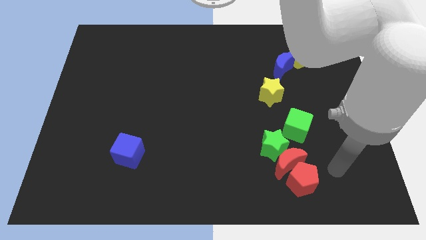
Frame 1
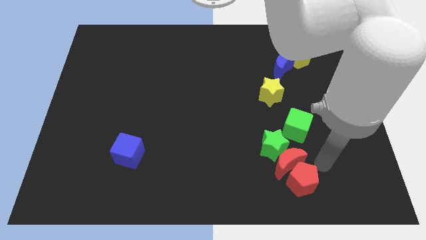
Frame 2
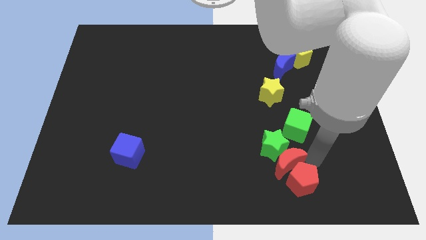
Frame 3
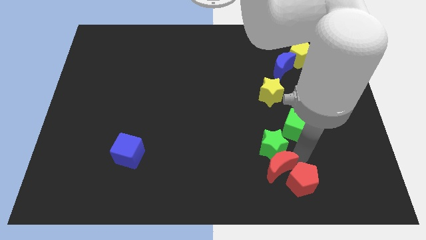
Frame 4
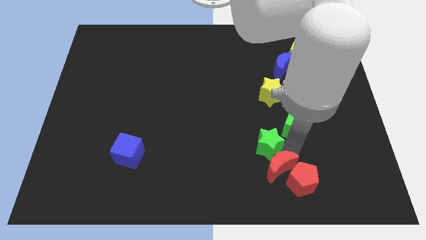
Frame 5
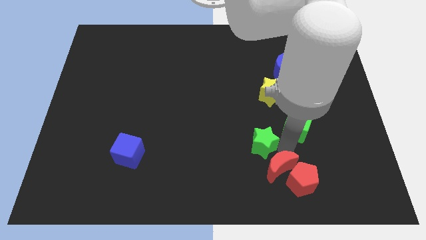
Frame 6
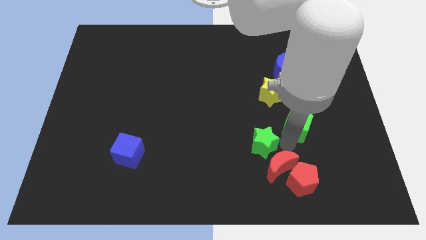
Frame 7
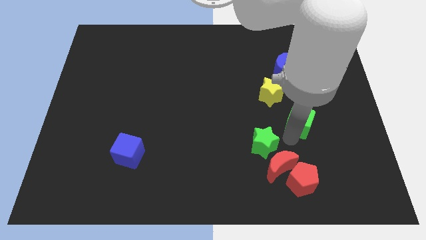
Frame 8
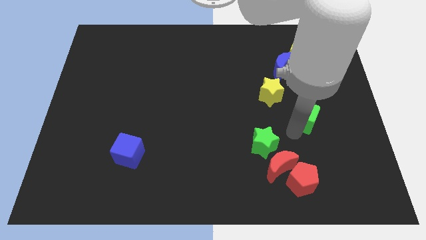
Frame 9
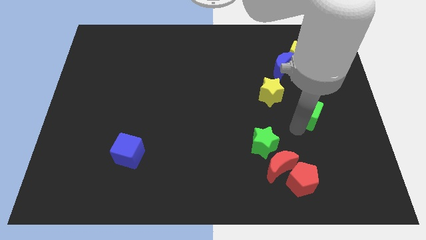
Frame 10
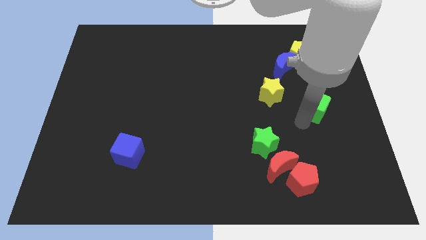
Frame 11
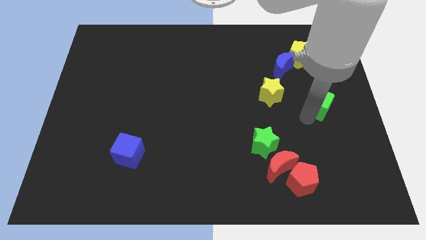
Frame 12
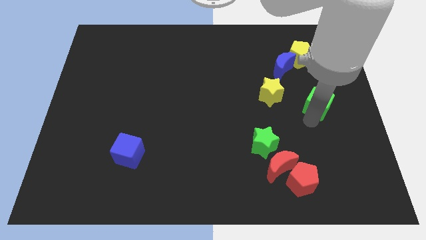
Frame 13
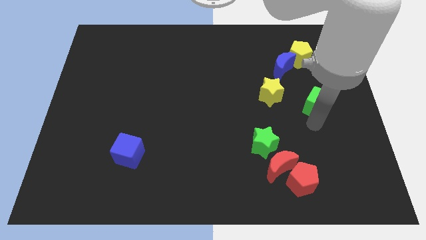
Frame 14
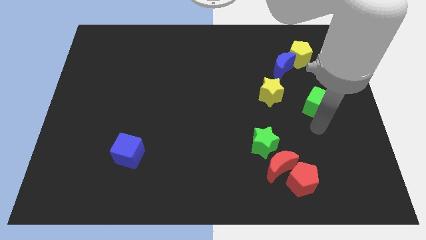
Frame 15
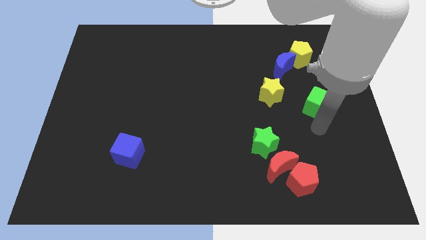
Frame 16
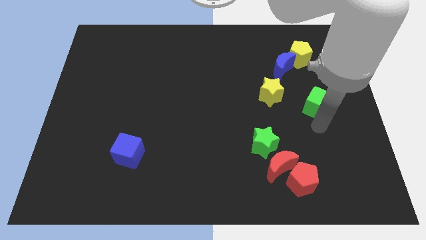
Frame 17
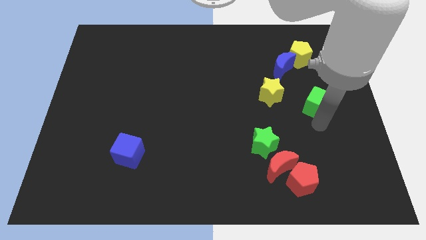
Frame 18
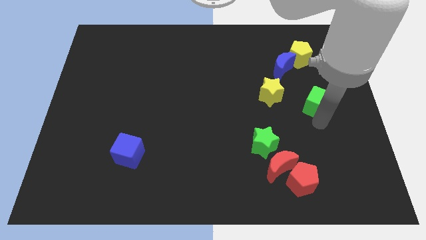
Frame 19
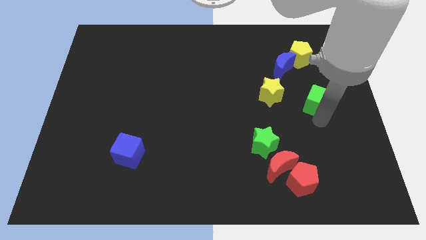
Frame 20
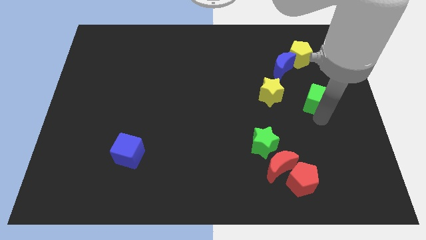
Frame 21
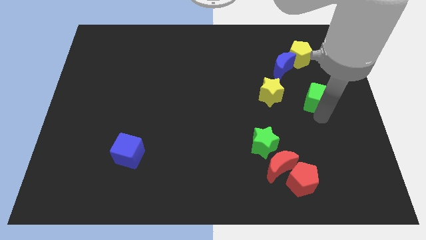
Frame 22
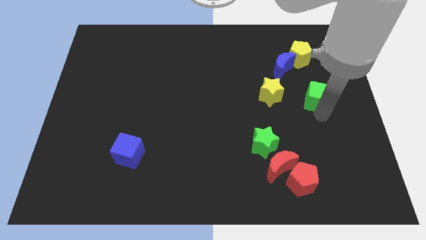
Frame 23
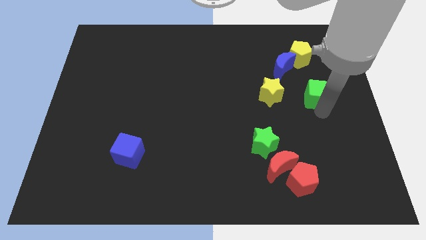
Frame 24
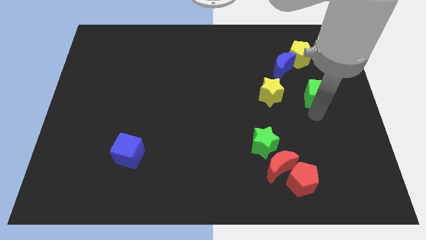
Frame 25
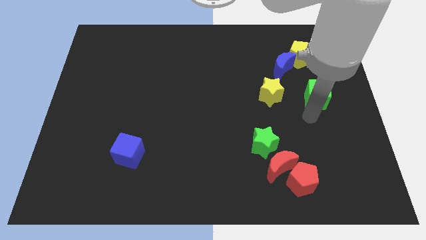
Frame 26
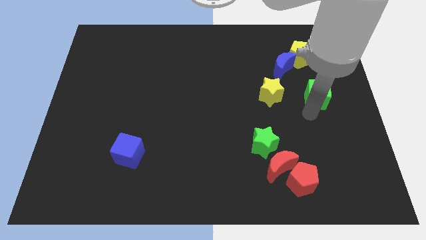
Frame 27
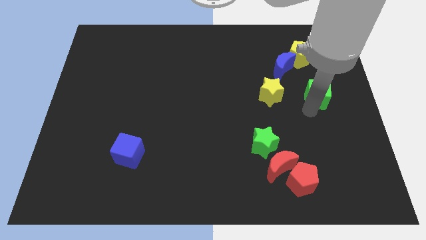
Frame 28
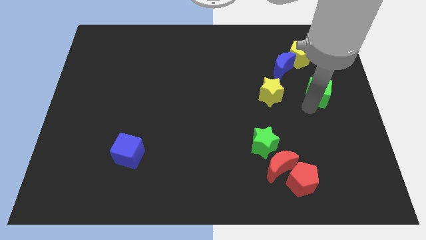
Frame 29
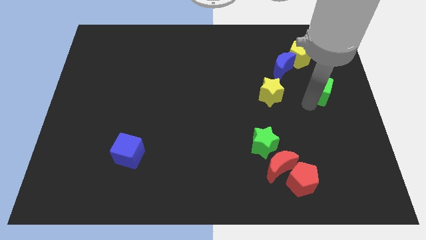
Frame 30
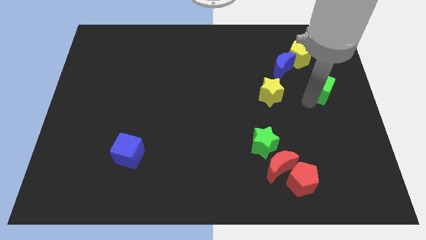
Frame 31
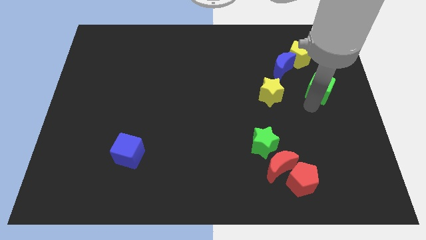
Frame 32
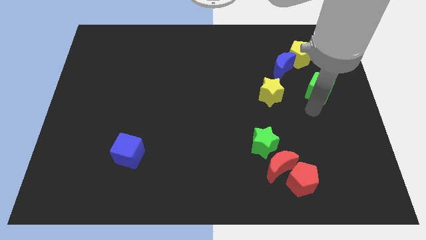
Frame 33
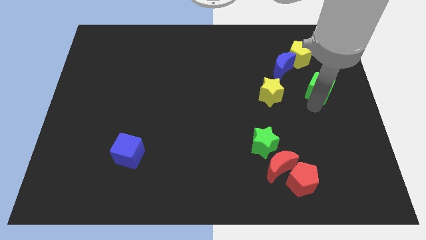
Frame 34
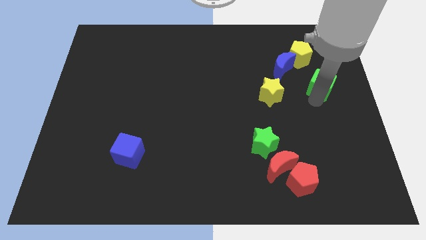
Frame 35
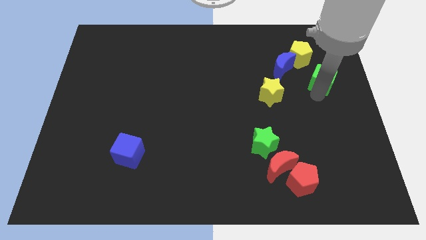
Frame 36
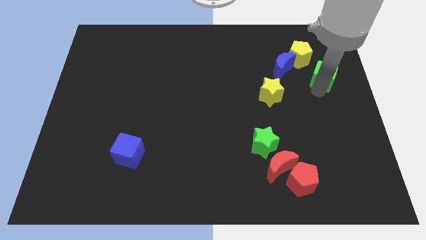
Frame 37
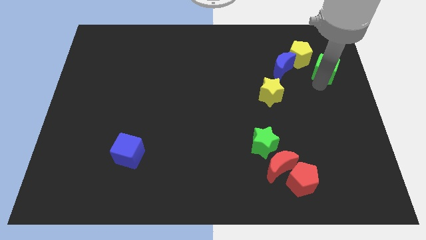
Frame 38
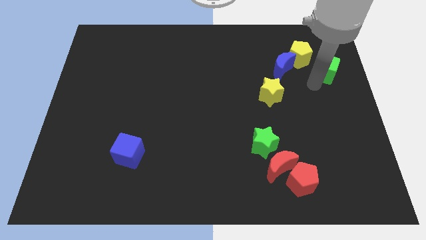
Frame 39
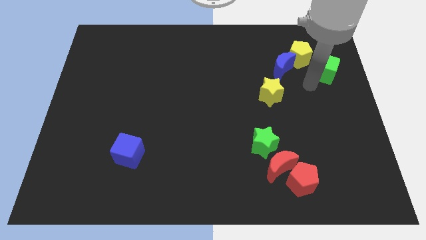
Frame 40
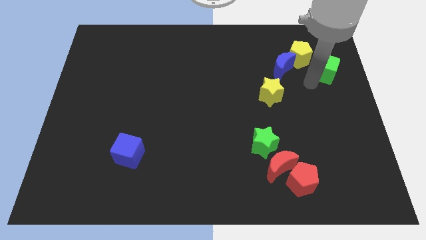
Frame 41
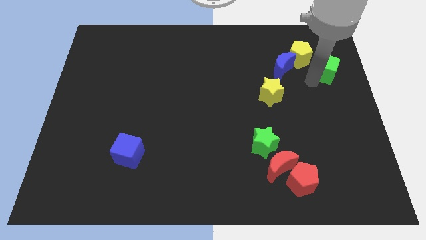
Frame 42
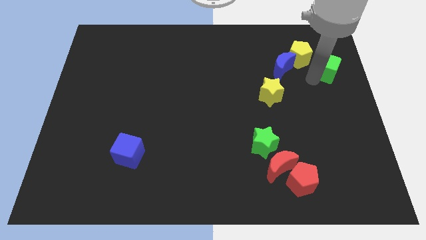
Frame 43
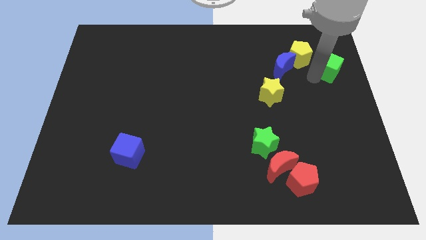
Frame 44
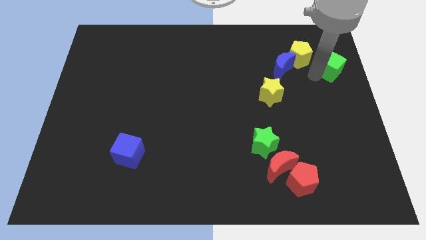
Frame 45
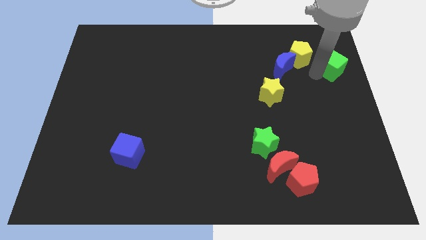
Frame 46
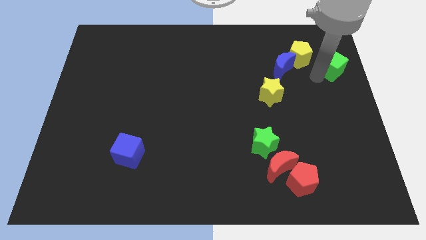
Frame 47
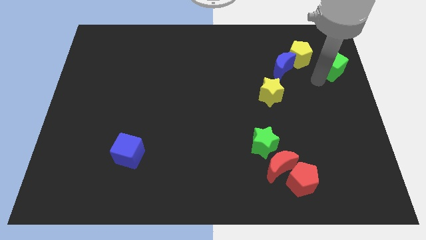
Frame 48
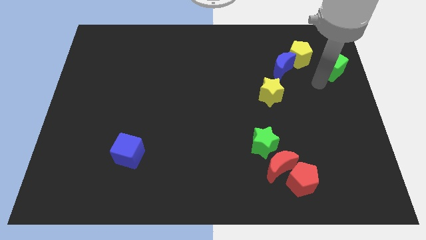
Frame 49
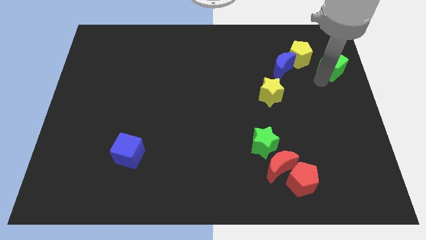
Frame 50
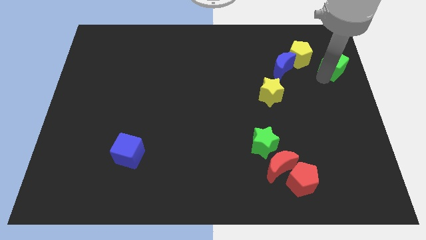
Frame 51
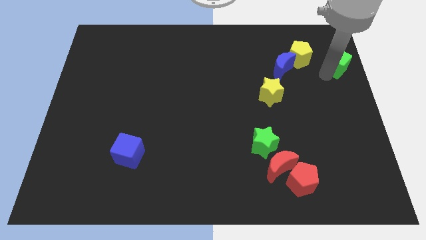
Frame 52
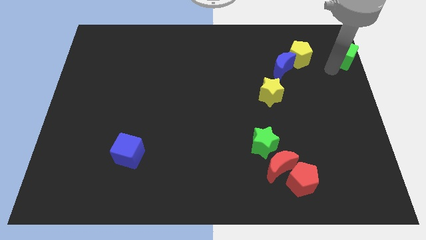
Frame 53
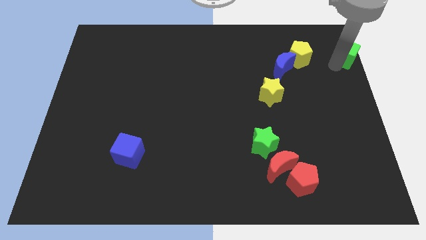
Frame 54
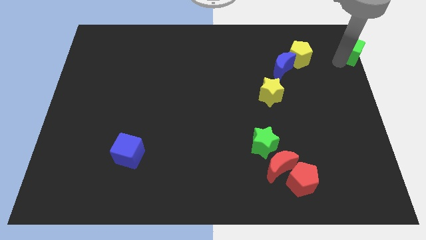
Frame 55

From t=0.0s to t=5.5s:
put the green cube to the top right corner
